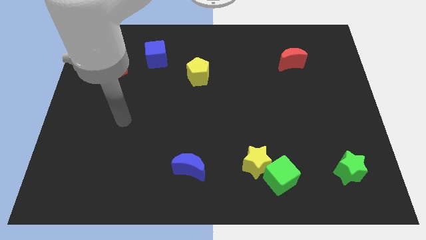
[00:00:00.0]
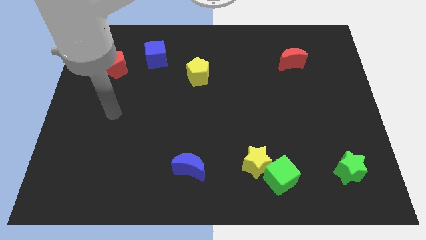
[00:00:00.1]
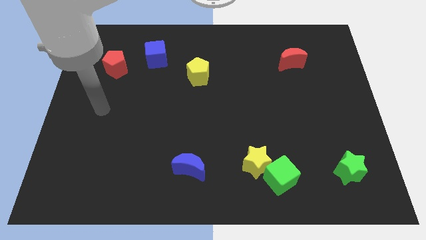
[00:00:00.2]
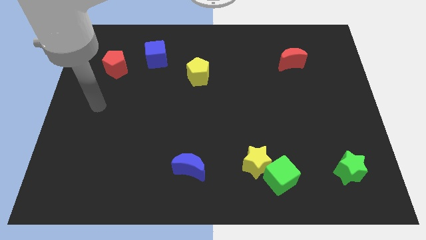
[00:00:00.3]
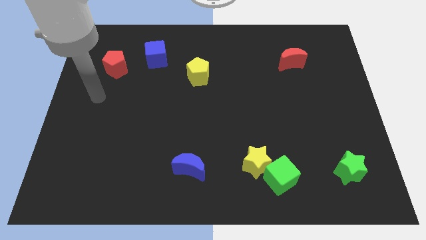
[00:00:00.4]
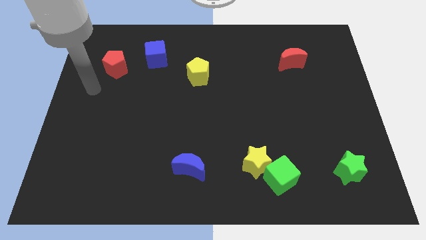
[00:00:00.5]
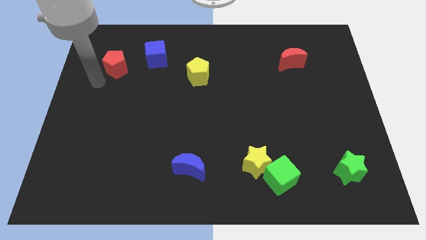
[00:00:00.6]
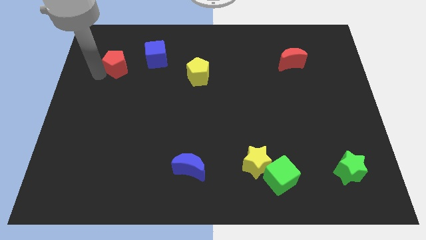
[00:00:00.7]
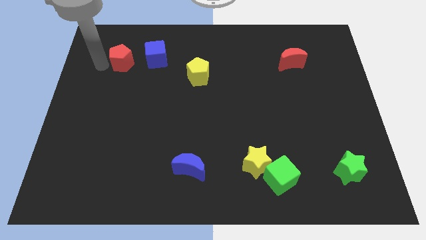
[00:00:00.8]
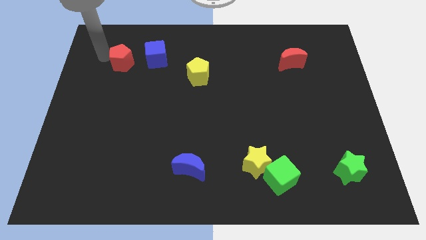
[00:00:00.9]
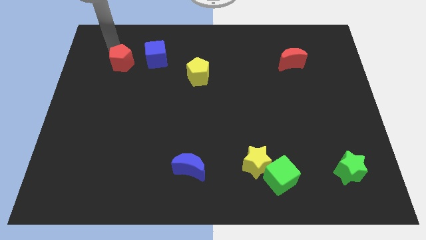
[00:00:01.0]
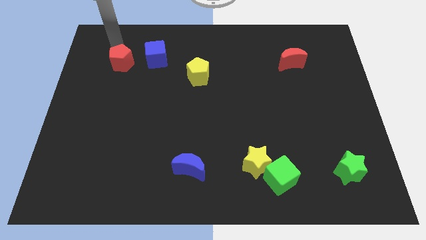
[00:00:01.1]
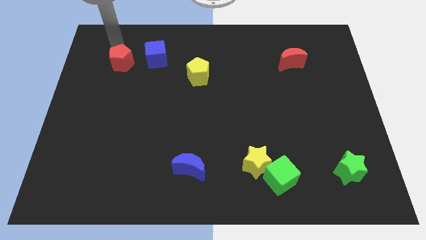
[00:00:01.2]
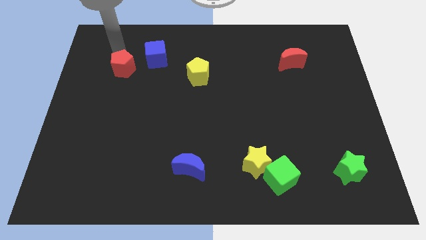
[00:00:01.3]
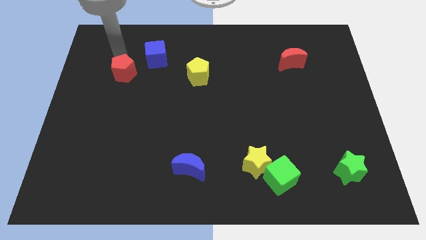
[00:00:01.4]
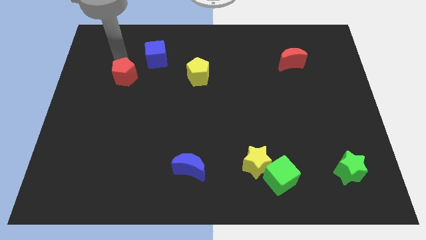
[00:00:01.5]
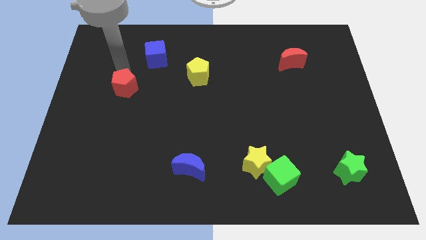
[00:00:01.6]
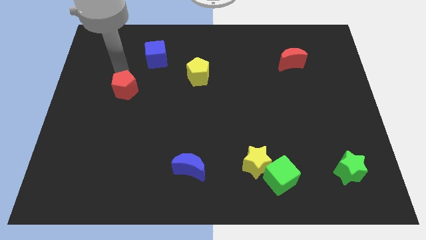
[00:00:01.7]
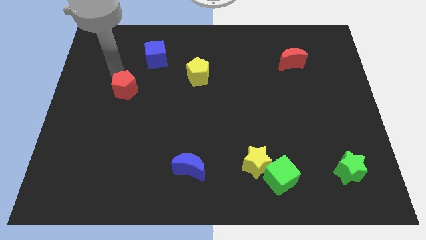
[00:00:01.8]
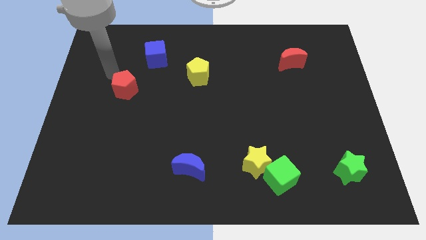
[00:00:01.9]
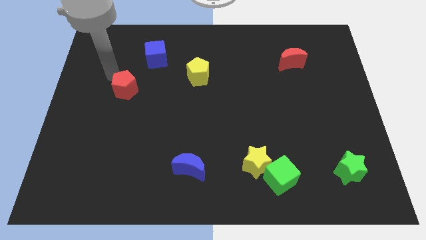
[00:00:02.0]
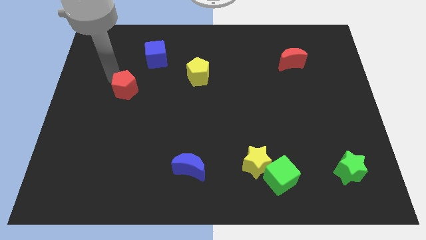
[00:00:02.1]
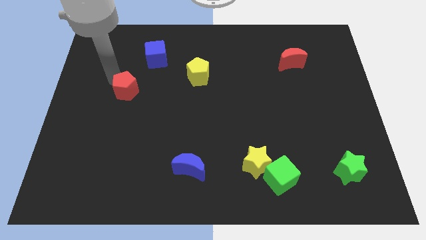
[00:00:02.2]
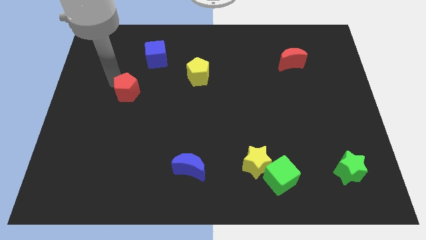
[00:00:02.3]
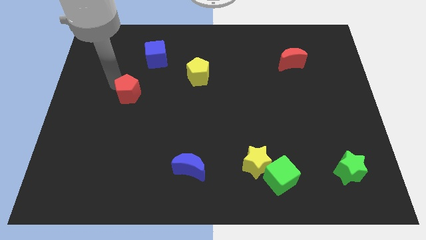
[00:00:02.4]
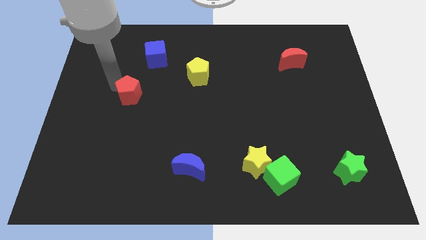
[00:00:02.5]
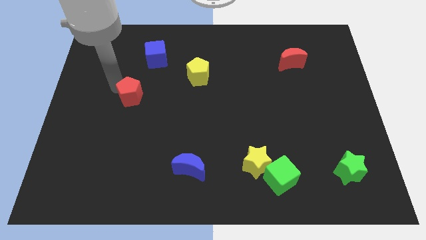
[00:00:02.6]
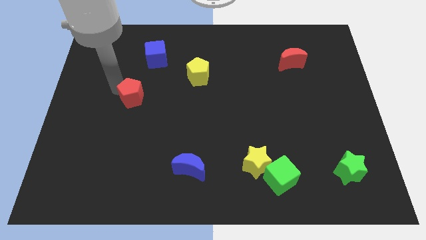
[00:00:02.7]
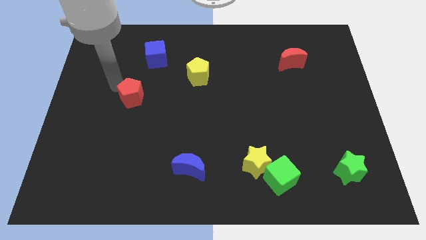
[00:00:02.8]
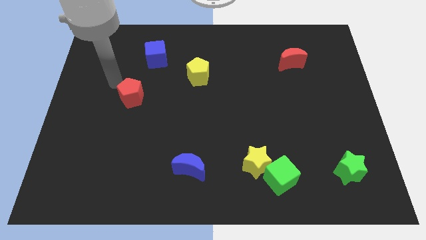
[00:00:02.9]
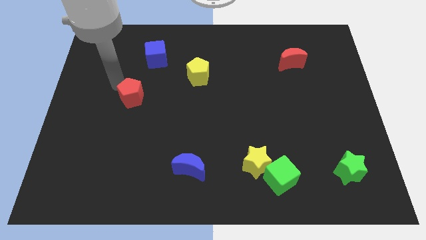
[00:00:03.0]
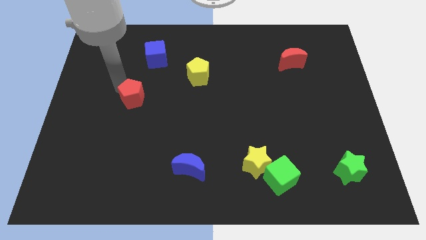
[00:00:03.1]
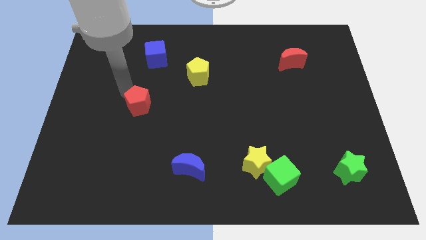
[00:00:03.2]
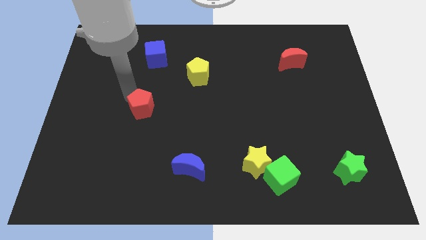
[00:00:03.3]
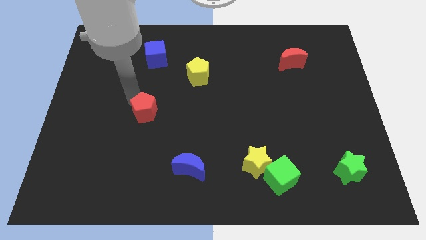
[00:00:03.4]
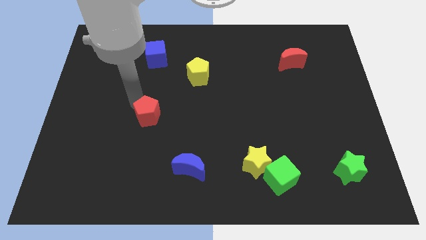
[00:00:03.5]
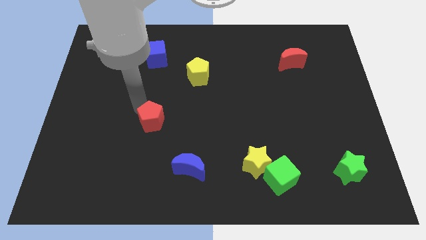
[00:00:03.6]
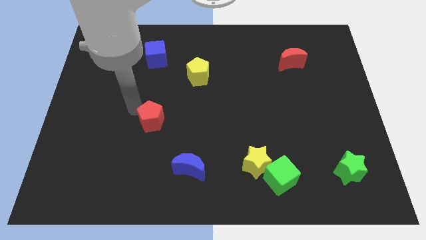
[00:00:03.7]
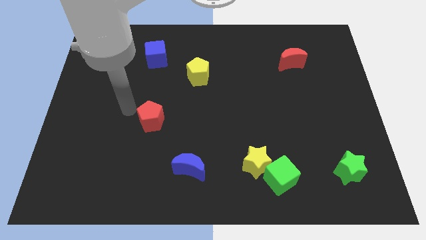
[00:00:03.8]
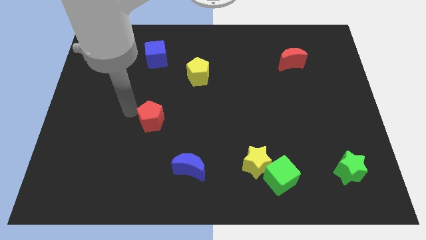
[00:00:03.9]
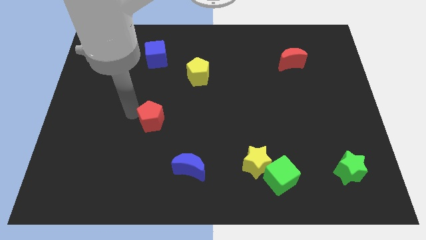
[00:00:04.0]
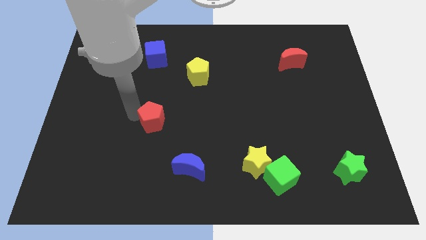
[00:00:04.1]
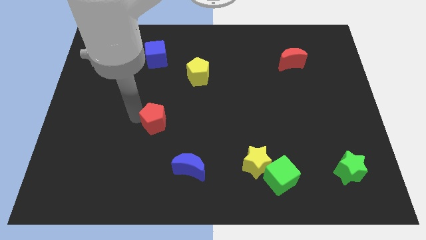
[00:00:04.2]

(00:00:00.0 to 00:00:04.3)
move the red pentagon downwards and to the right diagonally

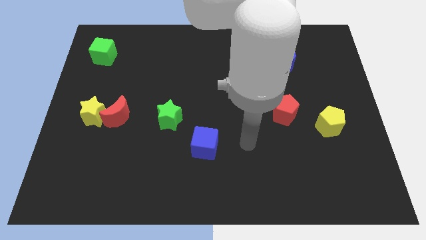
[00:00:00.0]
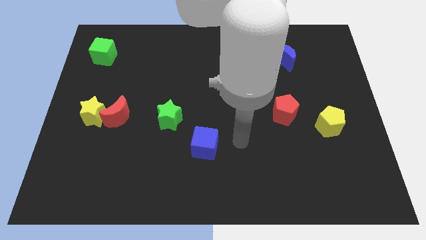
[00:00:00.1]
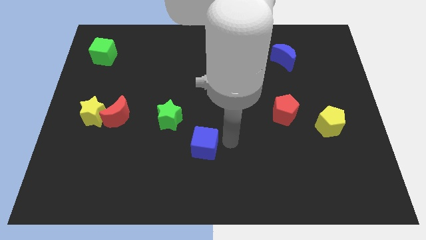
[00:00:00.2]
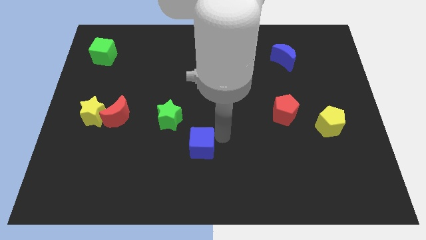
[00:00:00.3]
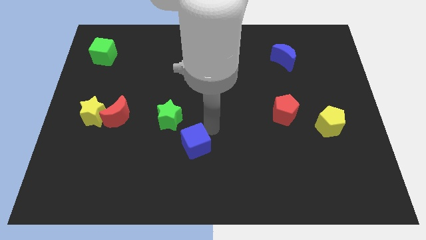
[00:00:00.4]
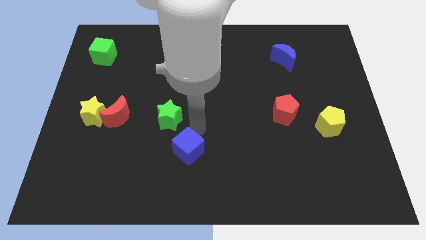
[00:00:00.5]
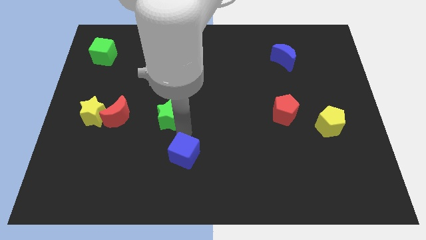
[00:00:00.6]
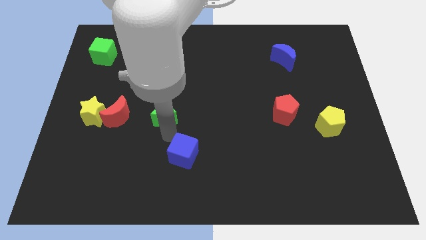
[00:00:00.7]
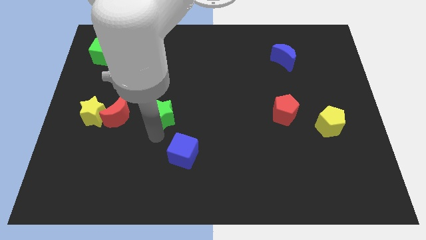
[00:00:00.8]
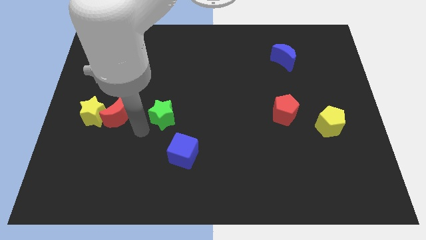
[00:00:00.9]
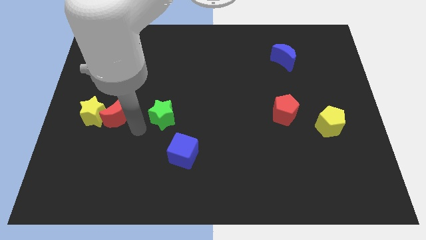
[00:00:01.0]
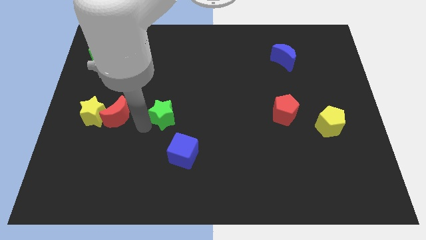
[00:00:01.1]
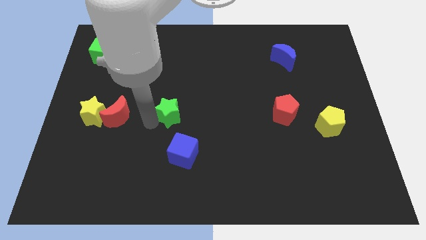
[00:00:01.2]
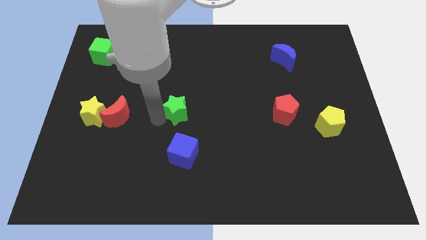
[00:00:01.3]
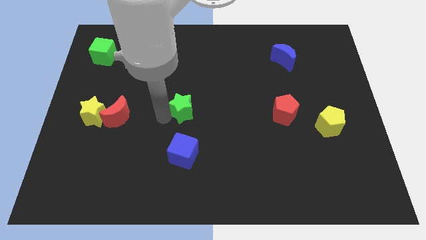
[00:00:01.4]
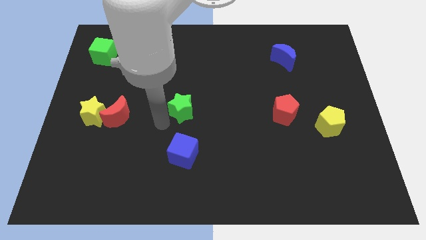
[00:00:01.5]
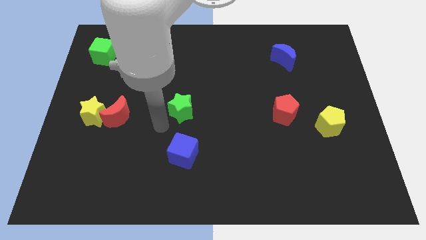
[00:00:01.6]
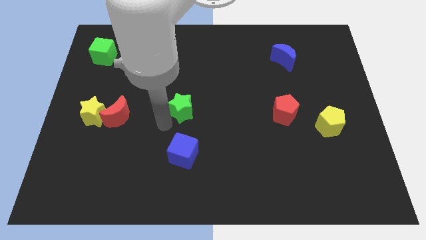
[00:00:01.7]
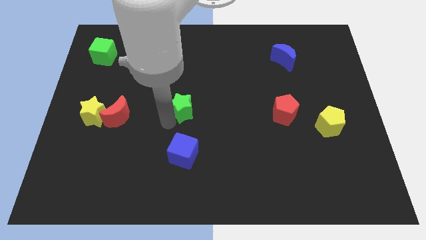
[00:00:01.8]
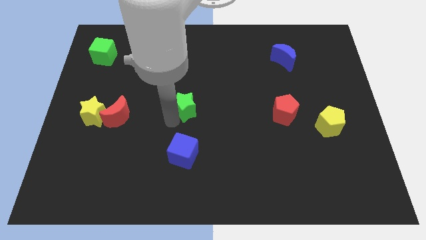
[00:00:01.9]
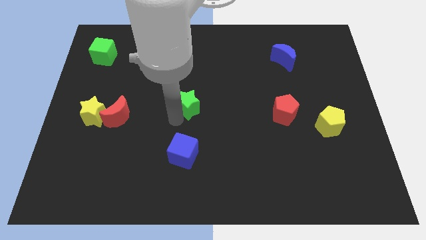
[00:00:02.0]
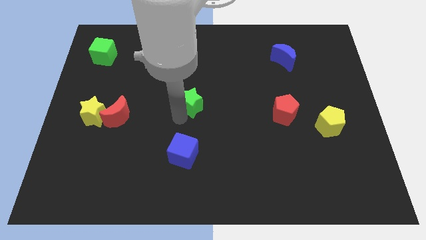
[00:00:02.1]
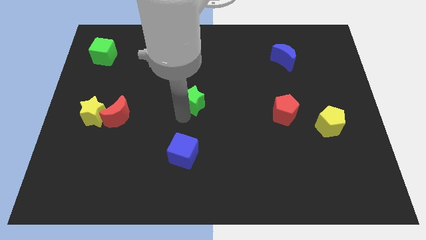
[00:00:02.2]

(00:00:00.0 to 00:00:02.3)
move the green star a little bit upwards and right diagonally

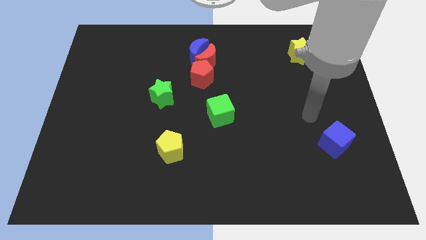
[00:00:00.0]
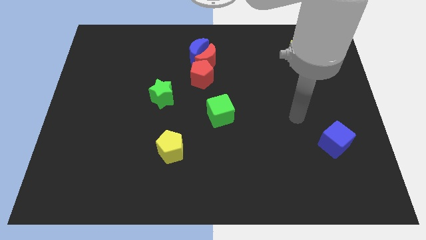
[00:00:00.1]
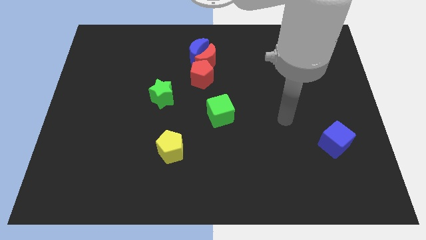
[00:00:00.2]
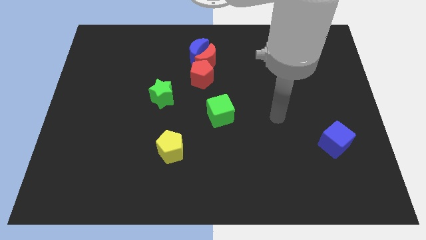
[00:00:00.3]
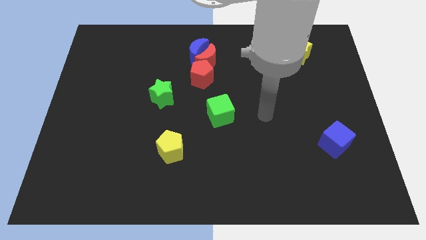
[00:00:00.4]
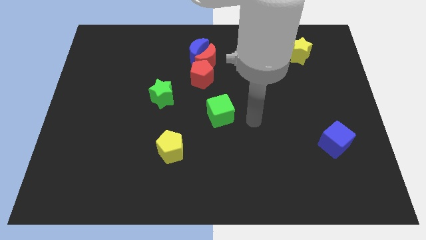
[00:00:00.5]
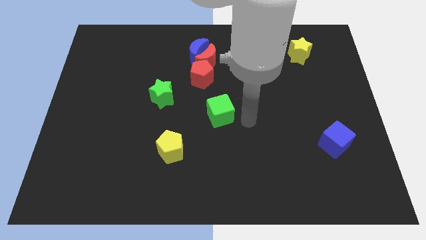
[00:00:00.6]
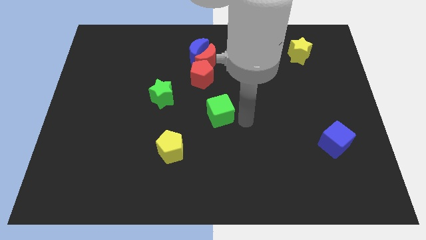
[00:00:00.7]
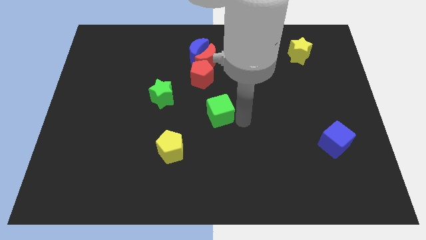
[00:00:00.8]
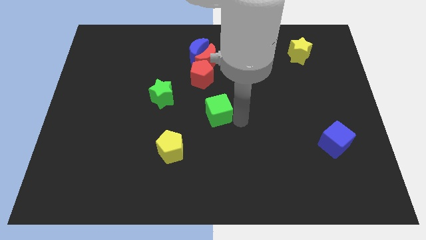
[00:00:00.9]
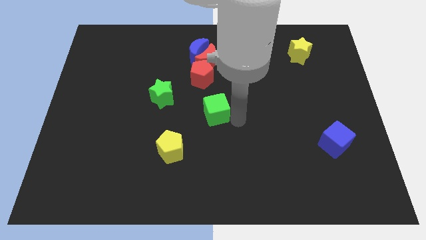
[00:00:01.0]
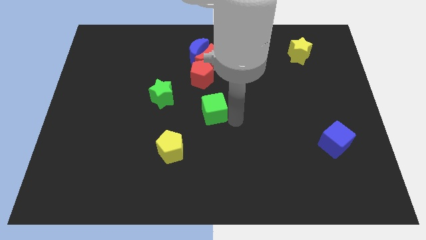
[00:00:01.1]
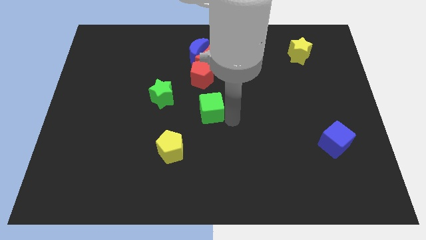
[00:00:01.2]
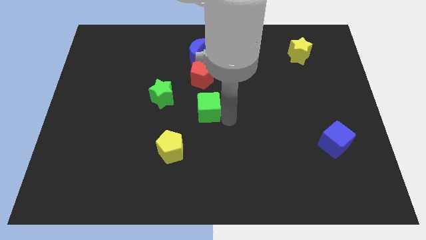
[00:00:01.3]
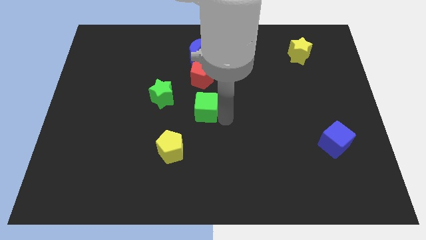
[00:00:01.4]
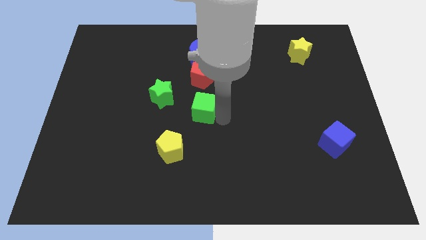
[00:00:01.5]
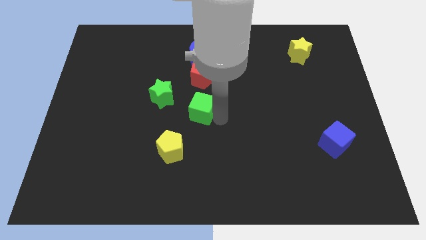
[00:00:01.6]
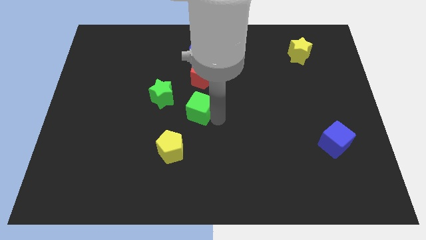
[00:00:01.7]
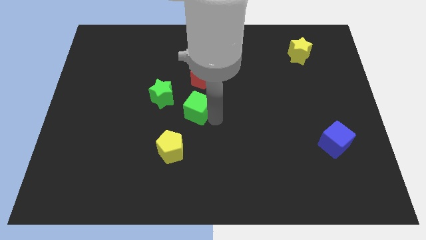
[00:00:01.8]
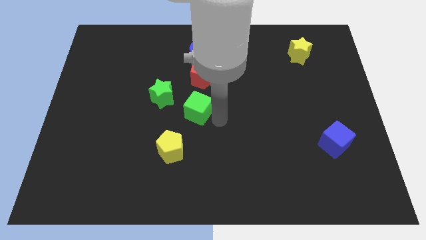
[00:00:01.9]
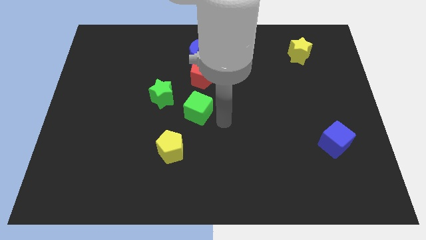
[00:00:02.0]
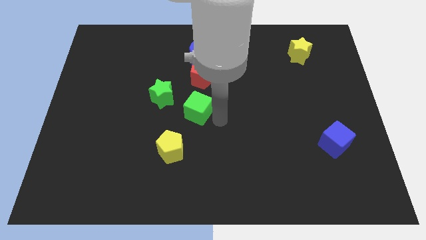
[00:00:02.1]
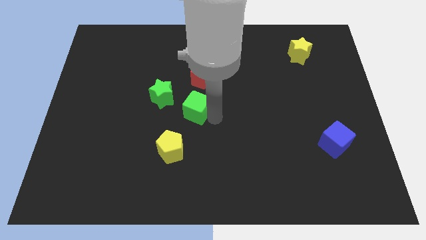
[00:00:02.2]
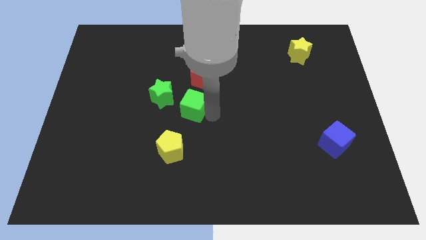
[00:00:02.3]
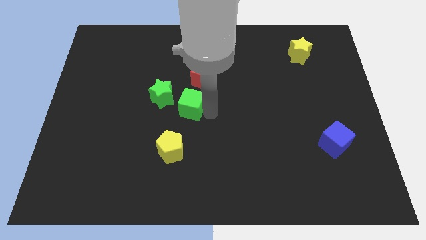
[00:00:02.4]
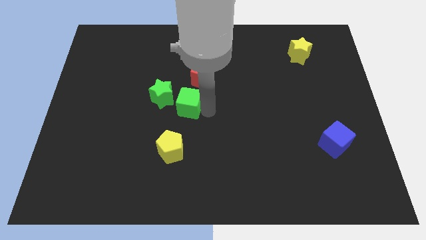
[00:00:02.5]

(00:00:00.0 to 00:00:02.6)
slightly slide the green cube left
